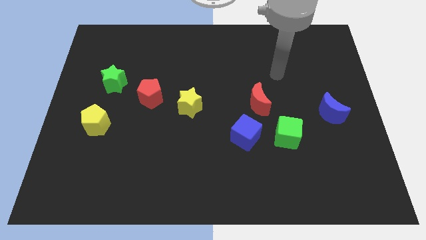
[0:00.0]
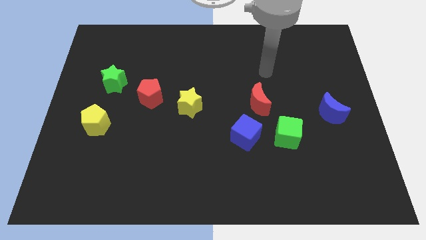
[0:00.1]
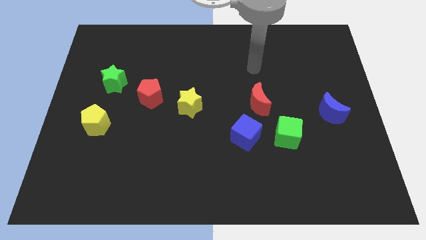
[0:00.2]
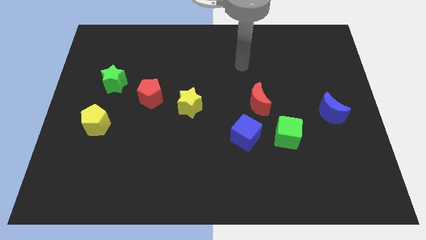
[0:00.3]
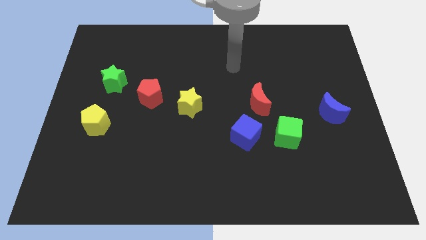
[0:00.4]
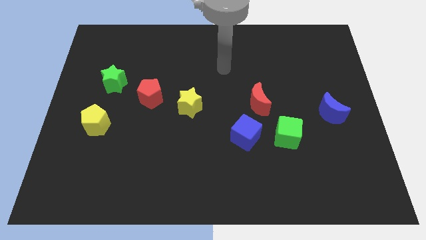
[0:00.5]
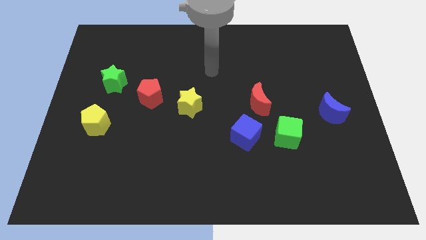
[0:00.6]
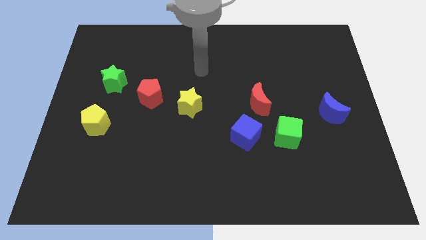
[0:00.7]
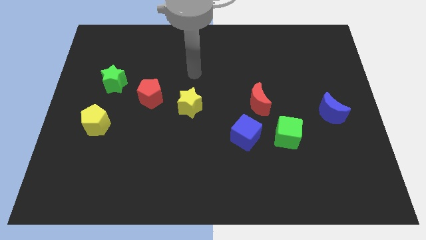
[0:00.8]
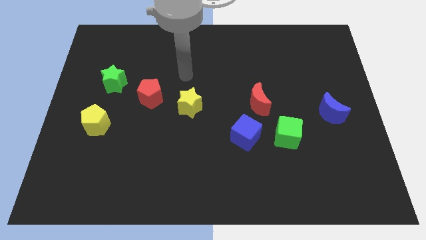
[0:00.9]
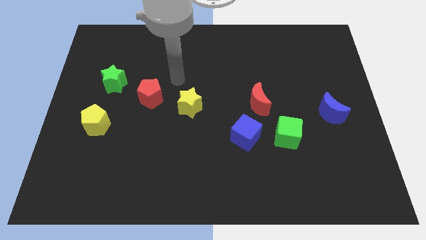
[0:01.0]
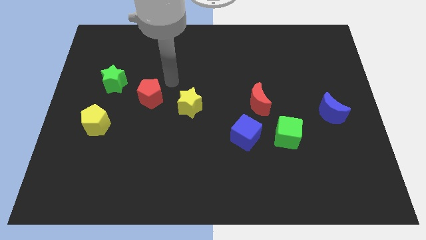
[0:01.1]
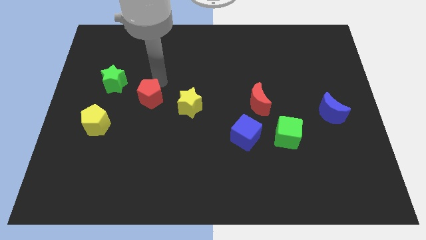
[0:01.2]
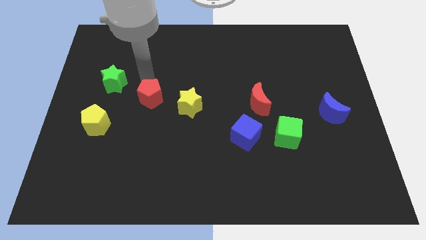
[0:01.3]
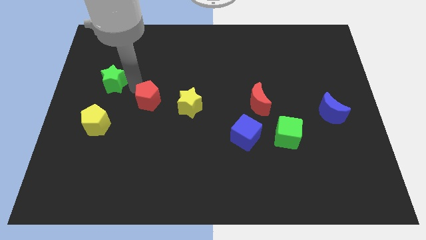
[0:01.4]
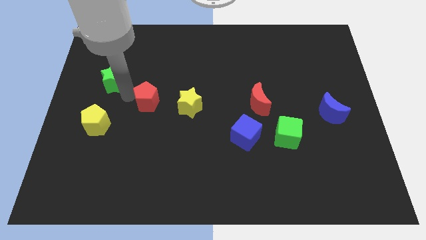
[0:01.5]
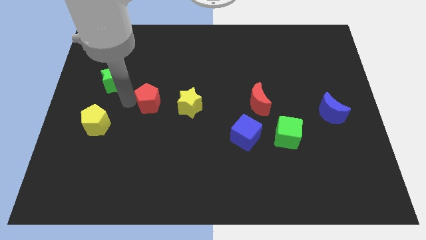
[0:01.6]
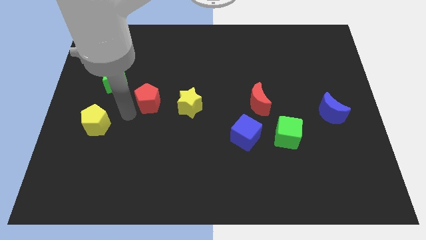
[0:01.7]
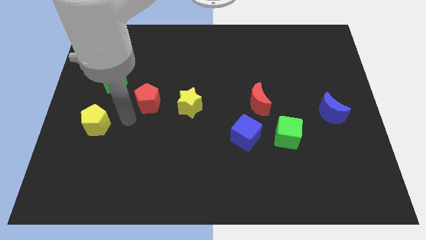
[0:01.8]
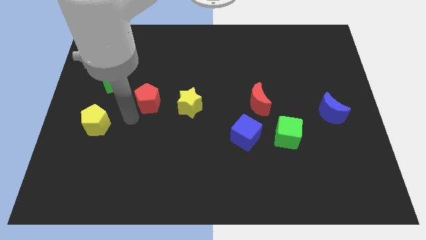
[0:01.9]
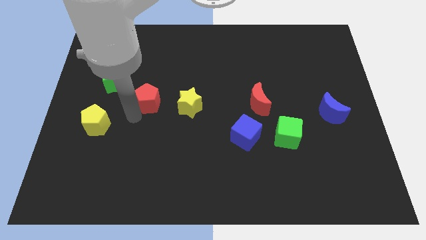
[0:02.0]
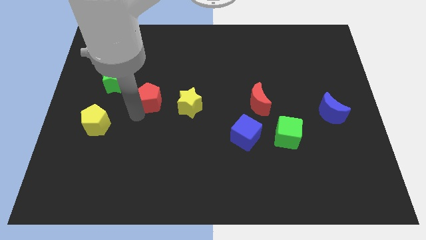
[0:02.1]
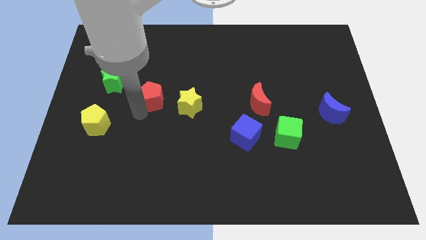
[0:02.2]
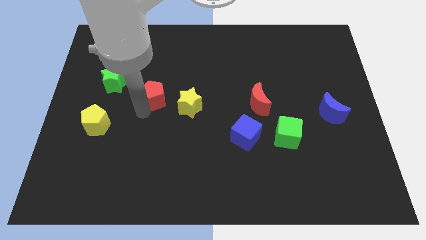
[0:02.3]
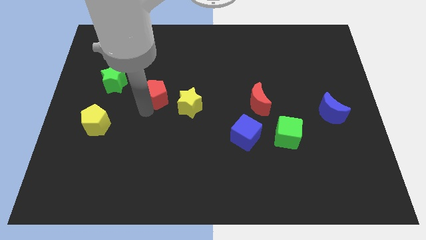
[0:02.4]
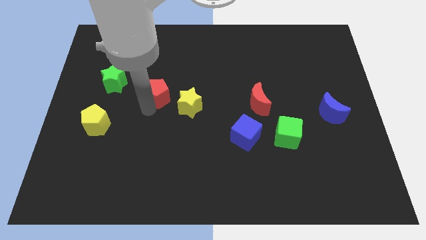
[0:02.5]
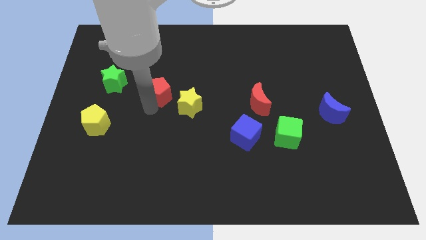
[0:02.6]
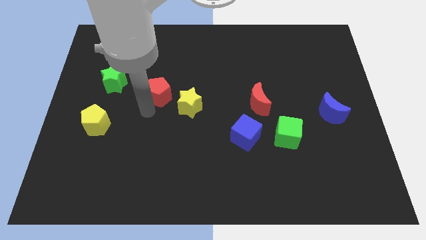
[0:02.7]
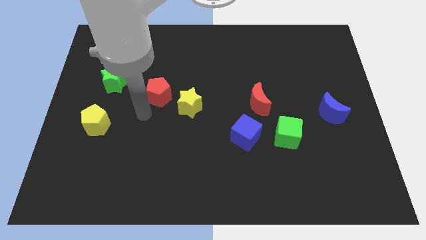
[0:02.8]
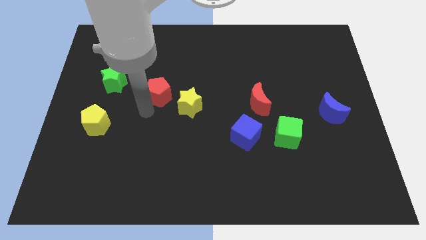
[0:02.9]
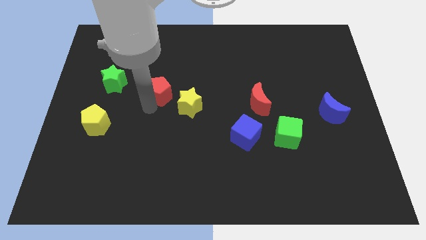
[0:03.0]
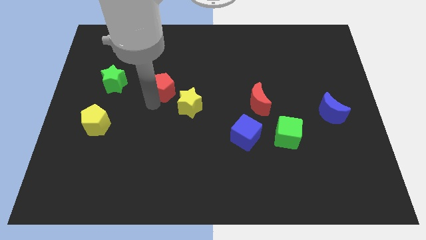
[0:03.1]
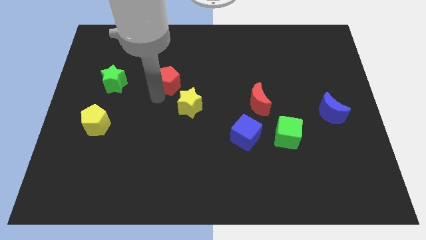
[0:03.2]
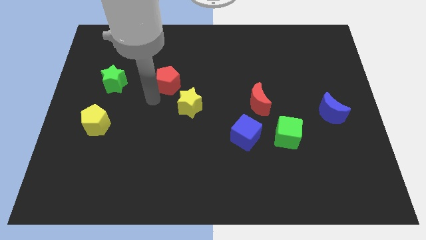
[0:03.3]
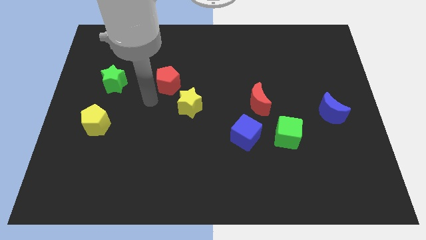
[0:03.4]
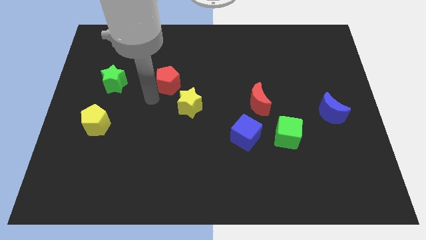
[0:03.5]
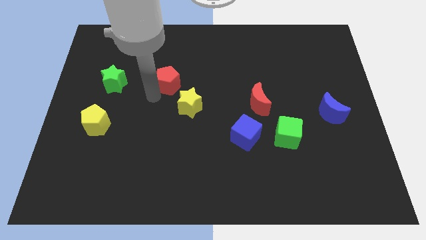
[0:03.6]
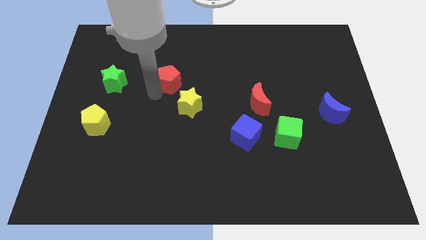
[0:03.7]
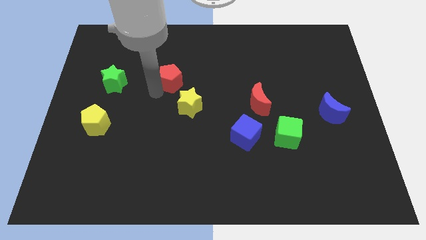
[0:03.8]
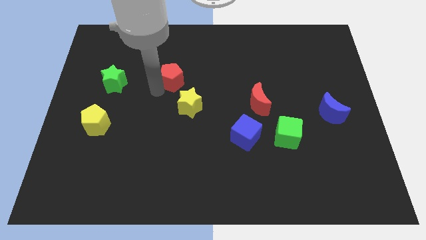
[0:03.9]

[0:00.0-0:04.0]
slightly move the red pentagon up and then right

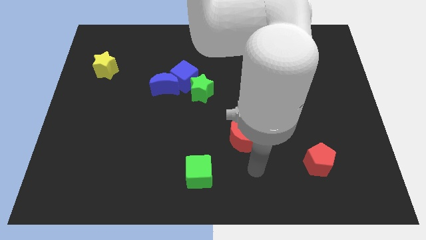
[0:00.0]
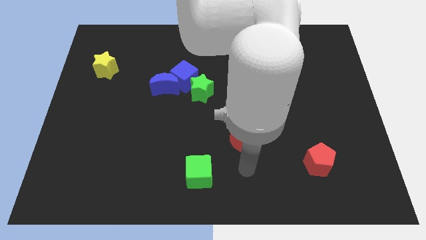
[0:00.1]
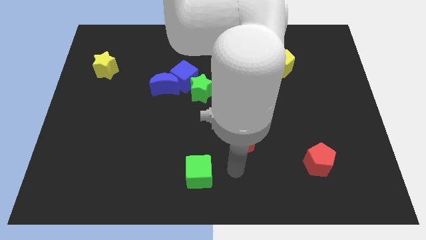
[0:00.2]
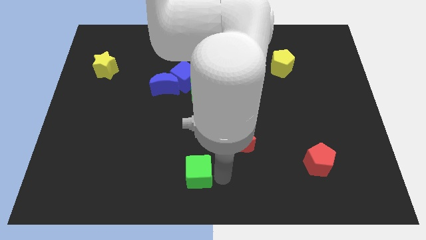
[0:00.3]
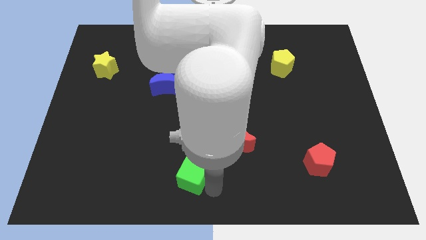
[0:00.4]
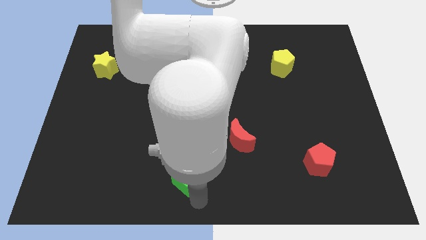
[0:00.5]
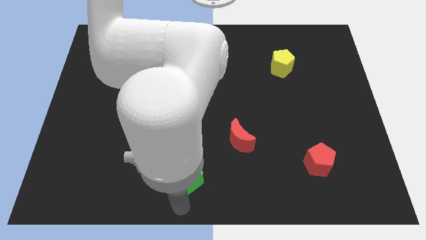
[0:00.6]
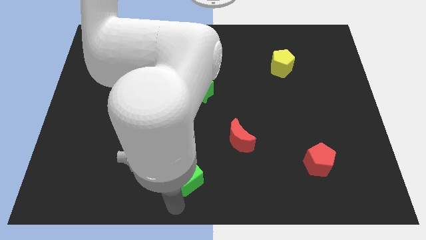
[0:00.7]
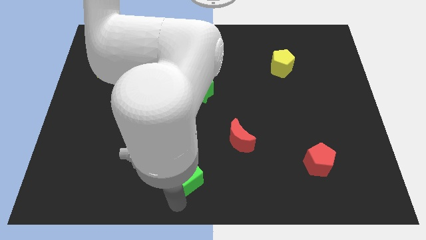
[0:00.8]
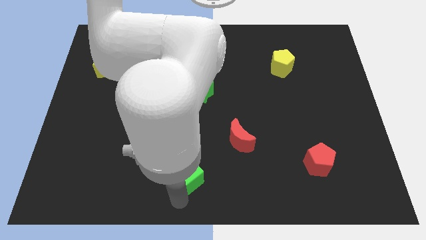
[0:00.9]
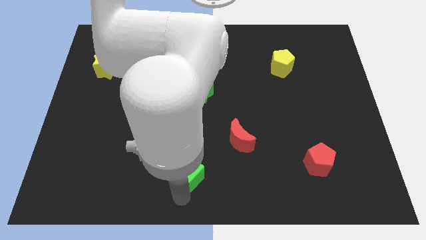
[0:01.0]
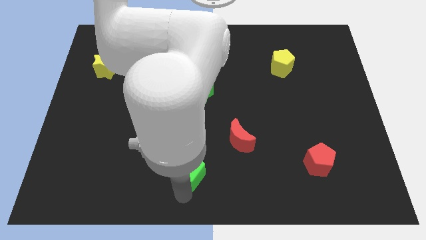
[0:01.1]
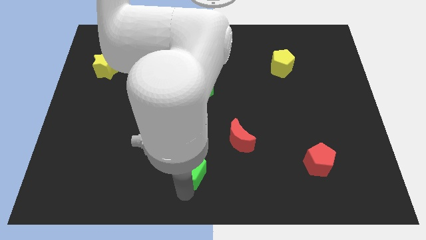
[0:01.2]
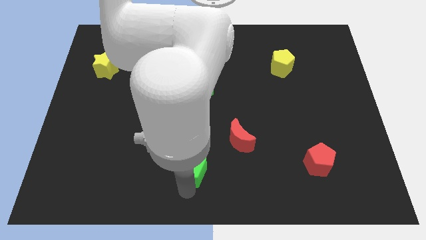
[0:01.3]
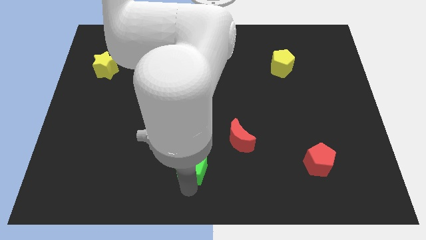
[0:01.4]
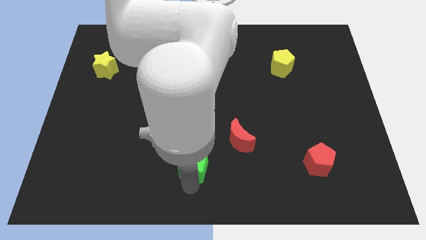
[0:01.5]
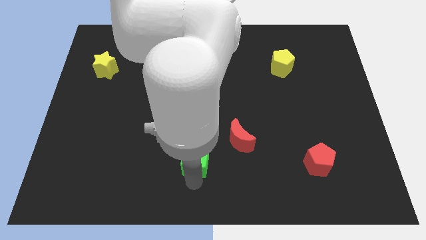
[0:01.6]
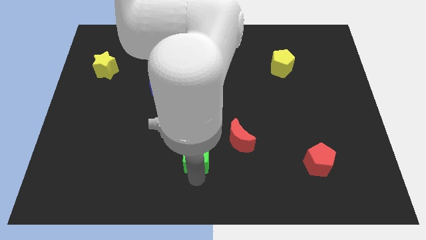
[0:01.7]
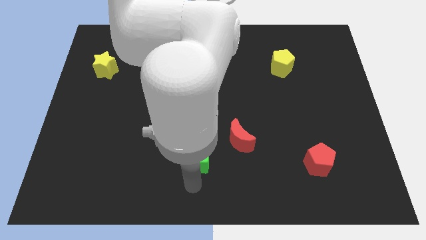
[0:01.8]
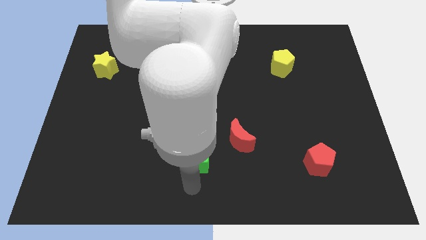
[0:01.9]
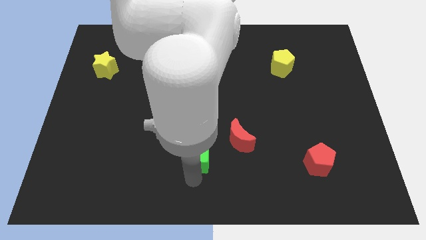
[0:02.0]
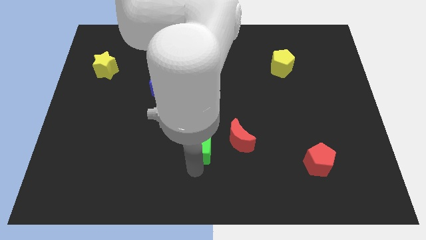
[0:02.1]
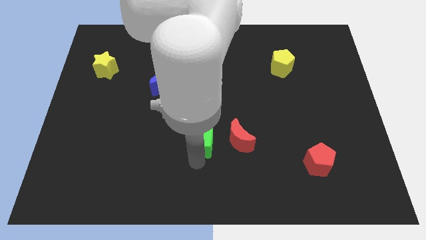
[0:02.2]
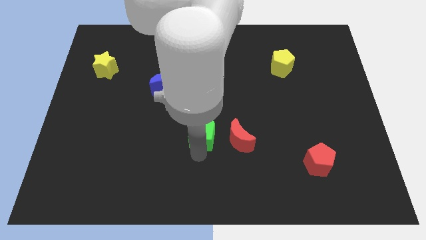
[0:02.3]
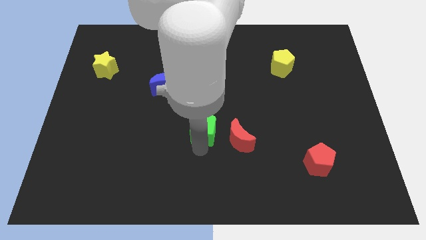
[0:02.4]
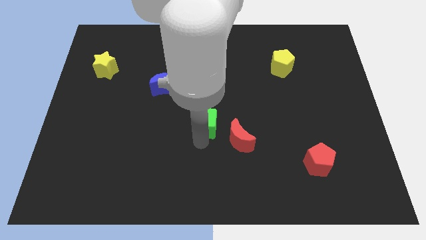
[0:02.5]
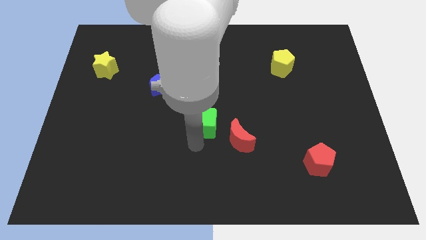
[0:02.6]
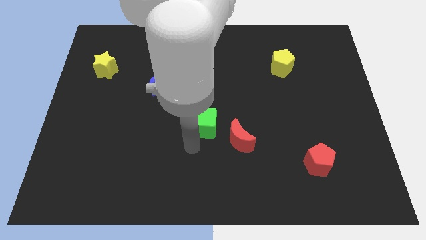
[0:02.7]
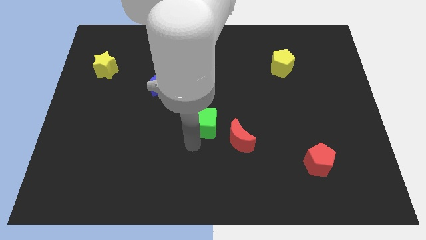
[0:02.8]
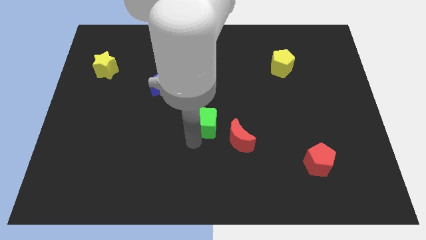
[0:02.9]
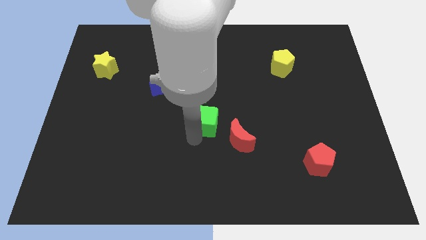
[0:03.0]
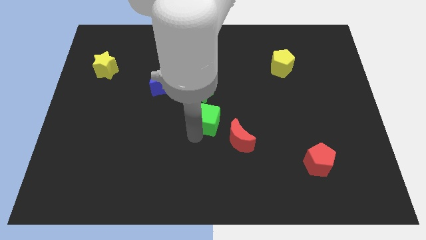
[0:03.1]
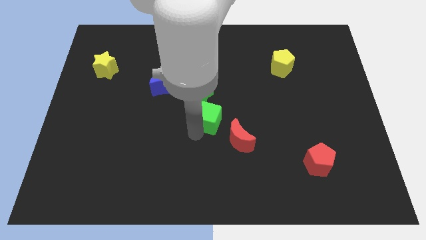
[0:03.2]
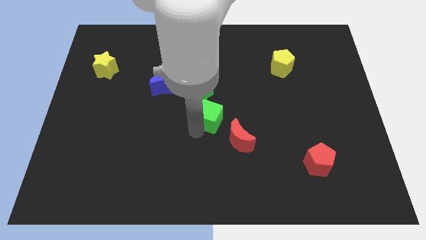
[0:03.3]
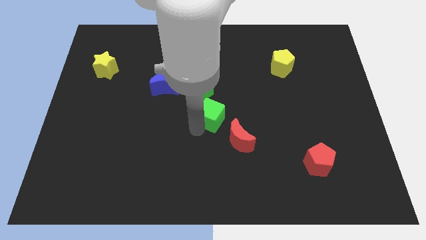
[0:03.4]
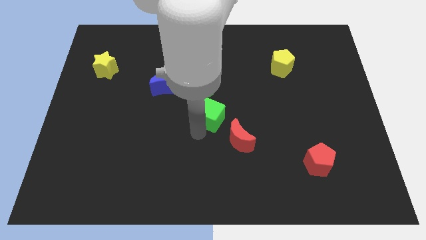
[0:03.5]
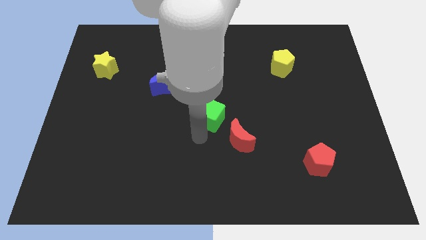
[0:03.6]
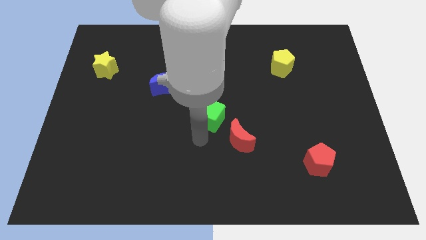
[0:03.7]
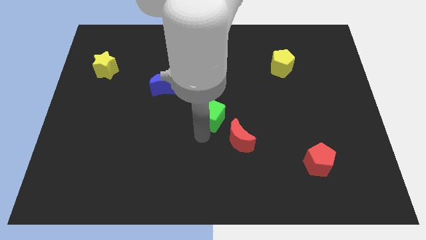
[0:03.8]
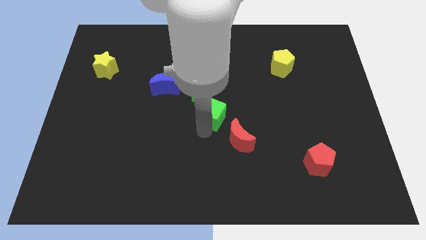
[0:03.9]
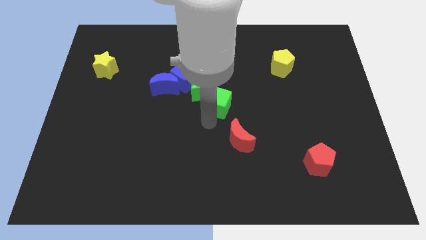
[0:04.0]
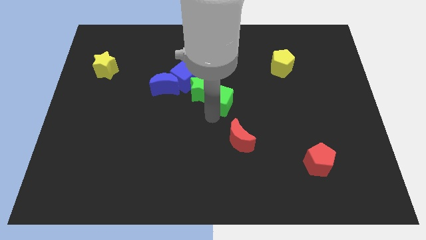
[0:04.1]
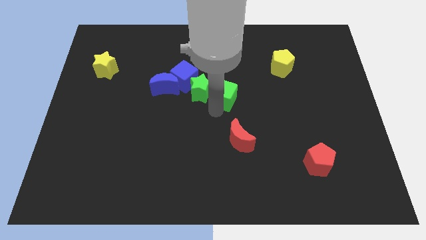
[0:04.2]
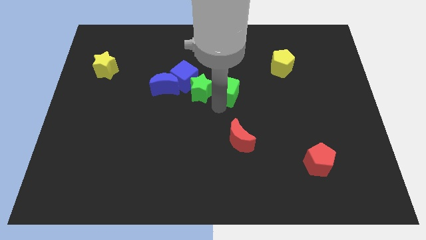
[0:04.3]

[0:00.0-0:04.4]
slide the green cube upwards
